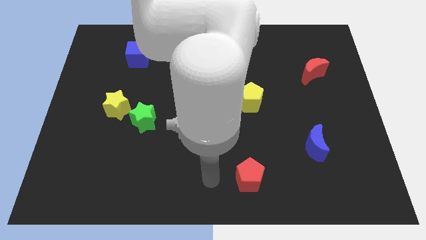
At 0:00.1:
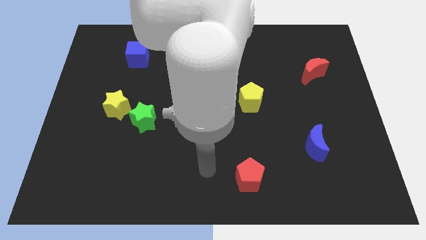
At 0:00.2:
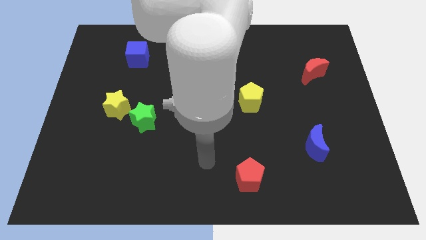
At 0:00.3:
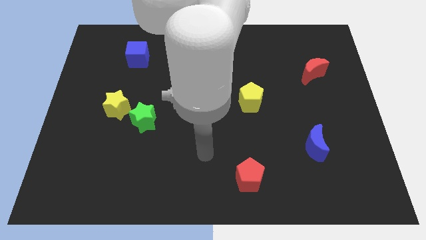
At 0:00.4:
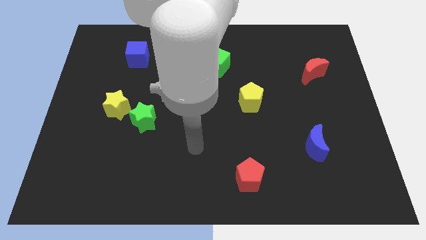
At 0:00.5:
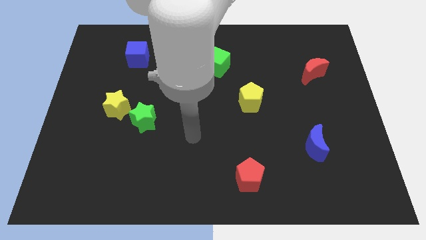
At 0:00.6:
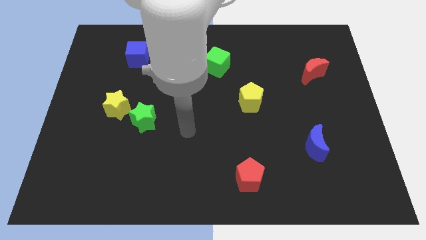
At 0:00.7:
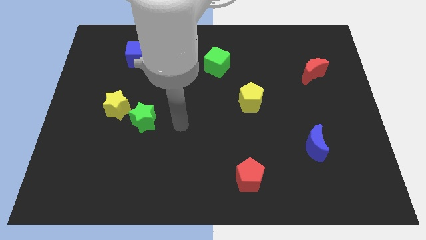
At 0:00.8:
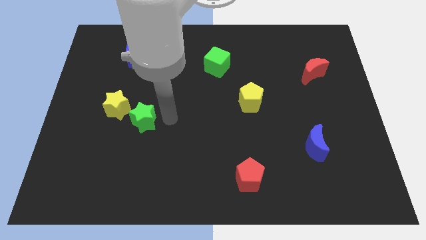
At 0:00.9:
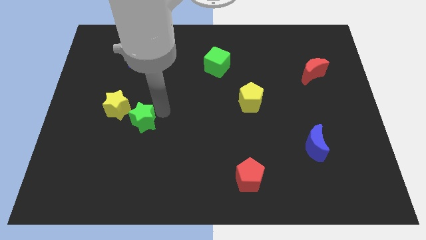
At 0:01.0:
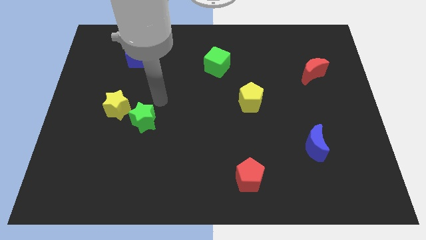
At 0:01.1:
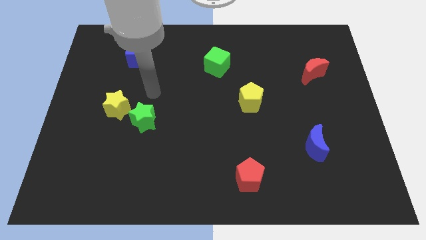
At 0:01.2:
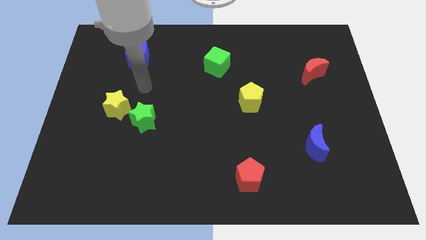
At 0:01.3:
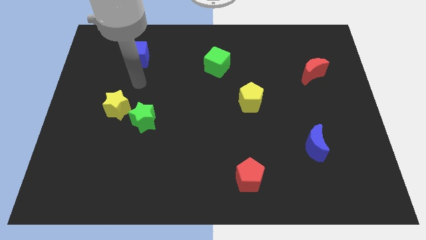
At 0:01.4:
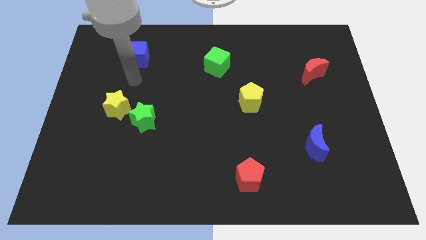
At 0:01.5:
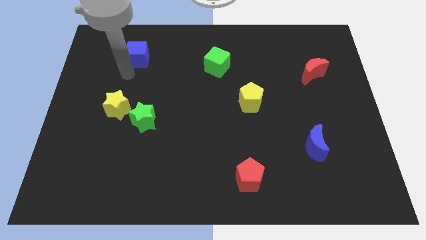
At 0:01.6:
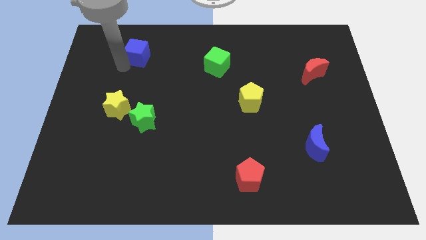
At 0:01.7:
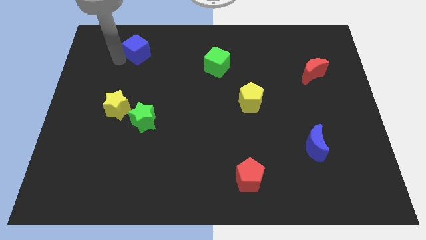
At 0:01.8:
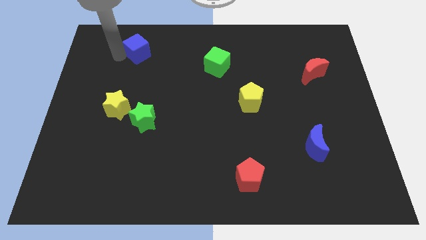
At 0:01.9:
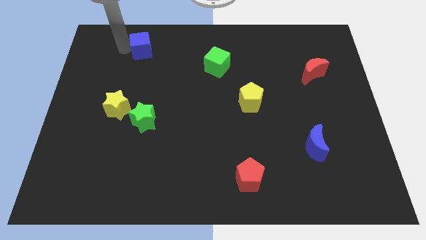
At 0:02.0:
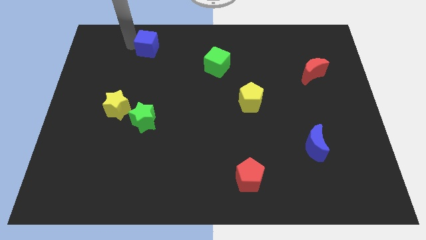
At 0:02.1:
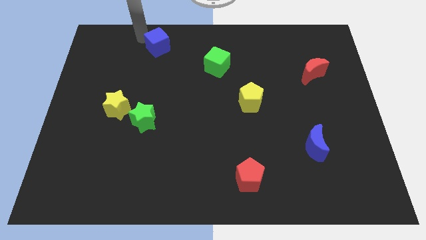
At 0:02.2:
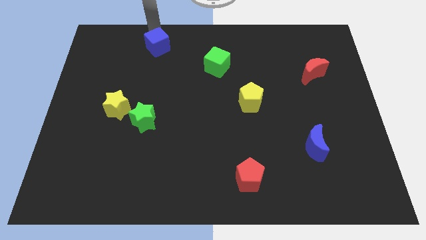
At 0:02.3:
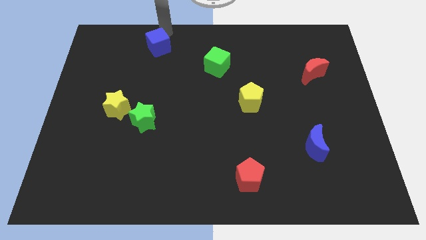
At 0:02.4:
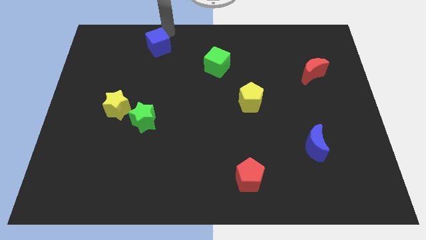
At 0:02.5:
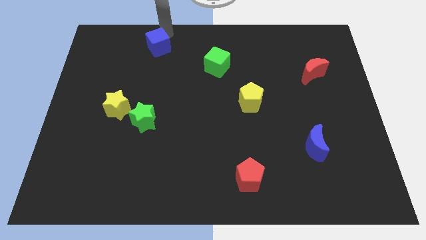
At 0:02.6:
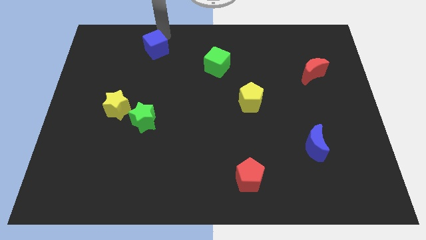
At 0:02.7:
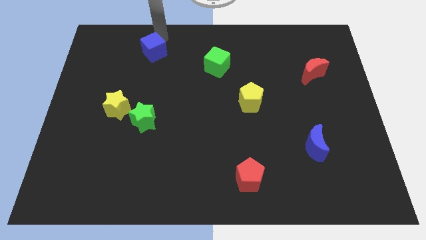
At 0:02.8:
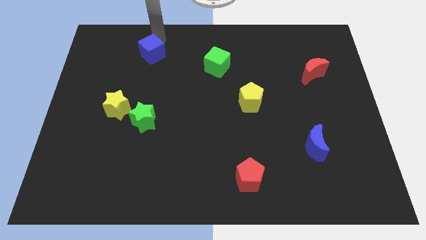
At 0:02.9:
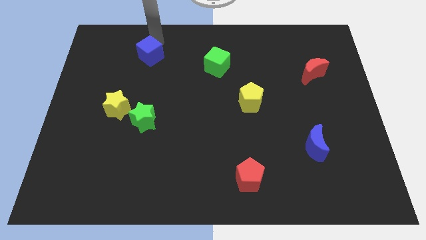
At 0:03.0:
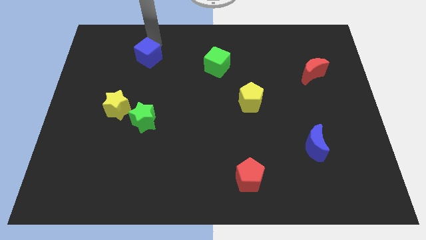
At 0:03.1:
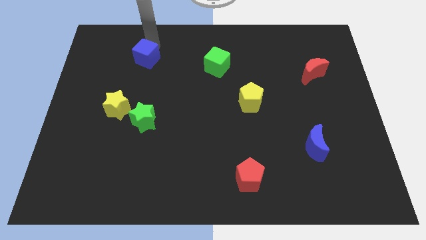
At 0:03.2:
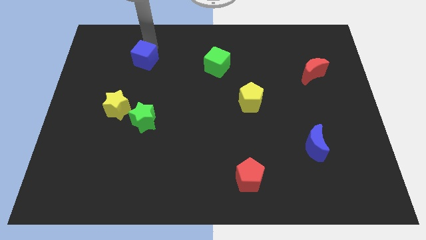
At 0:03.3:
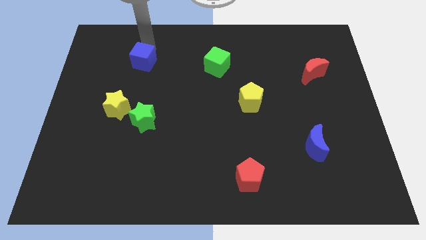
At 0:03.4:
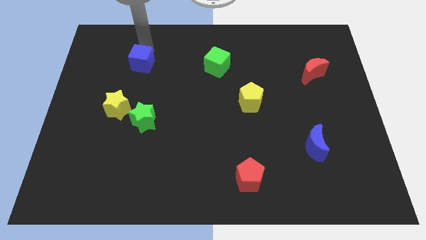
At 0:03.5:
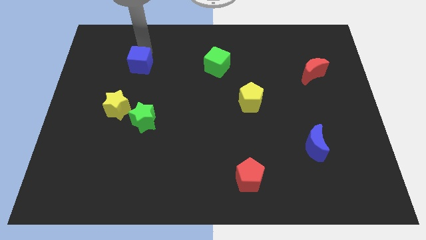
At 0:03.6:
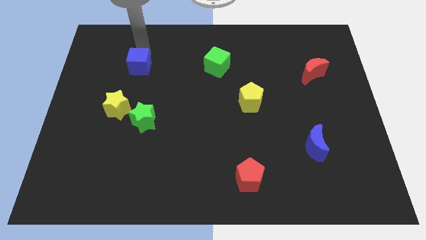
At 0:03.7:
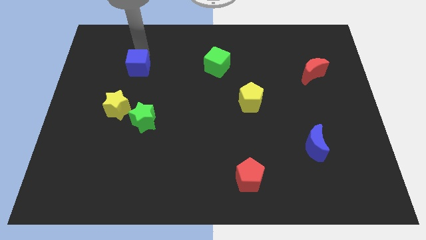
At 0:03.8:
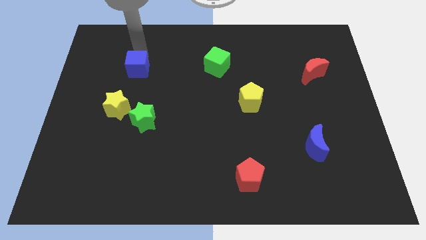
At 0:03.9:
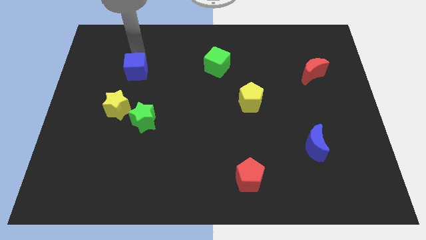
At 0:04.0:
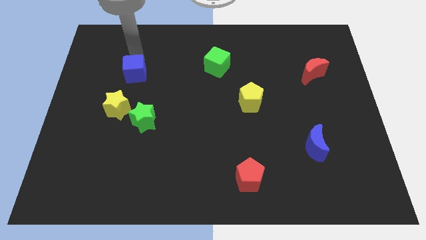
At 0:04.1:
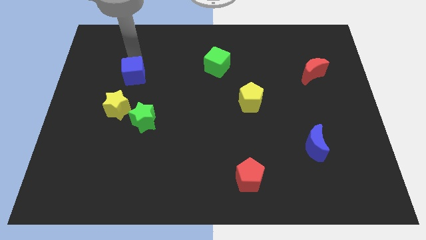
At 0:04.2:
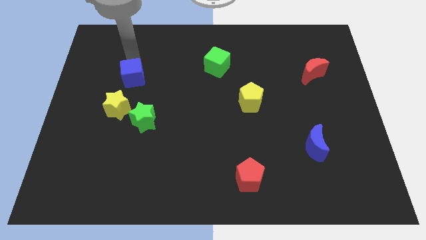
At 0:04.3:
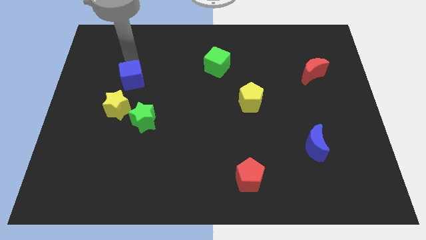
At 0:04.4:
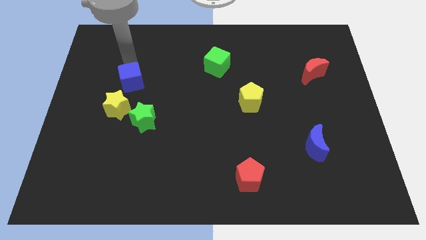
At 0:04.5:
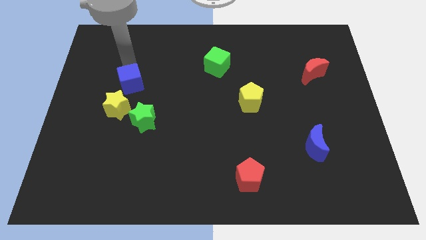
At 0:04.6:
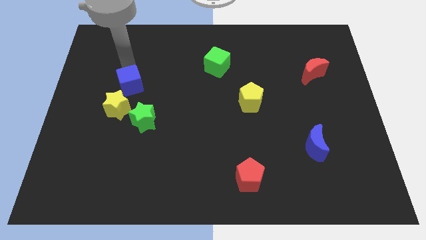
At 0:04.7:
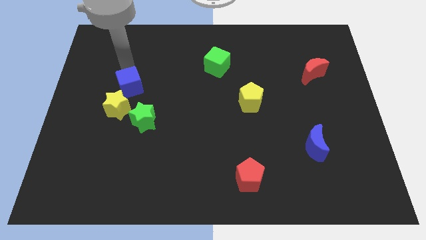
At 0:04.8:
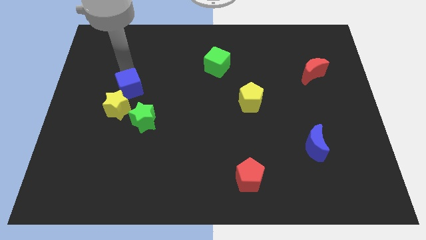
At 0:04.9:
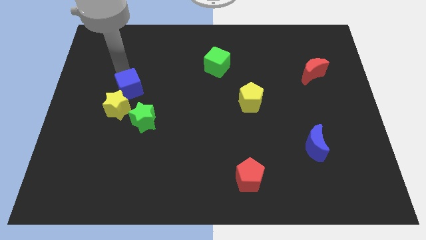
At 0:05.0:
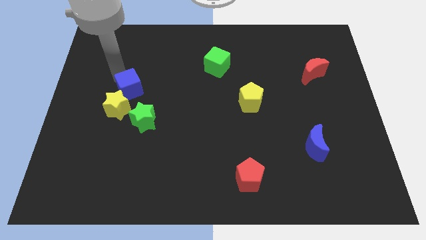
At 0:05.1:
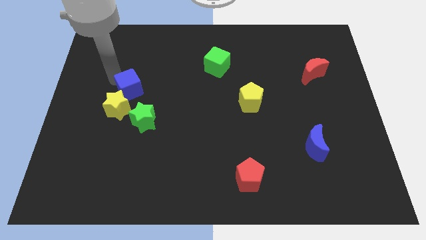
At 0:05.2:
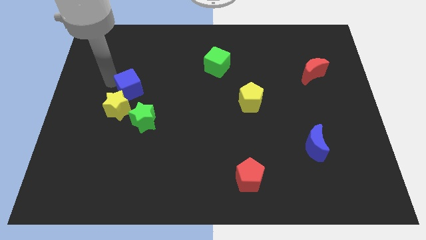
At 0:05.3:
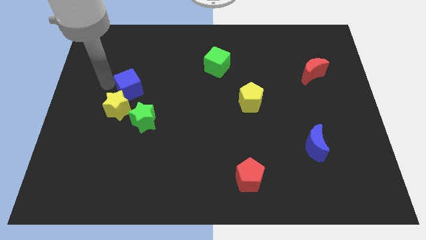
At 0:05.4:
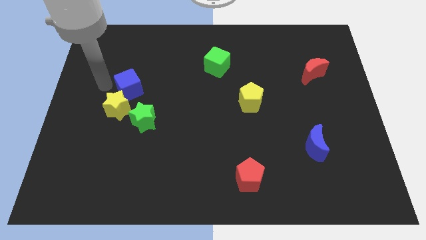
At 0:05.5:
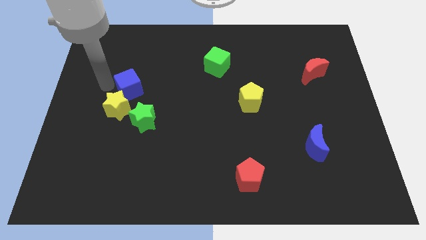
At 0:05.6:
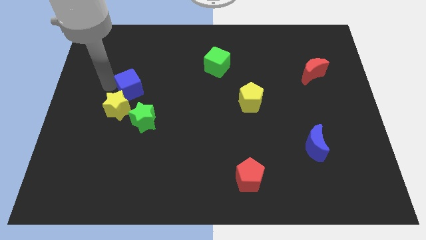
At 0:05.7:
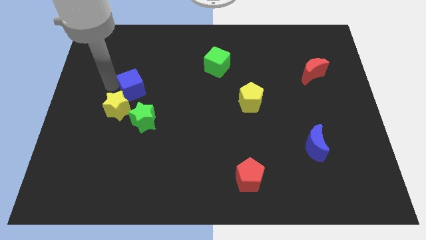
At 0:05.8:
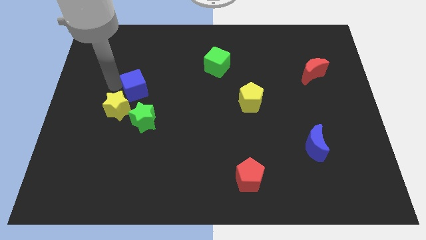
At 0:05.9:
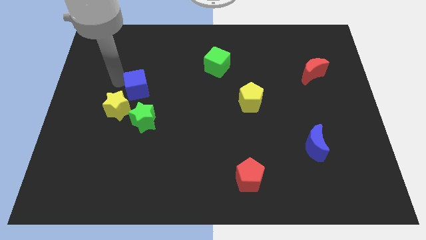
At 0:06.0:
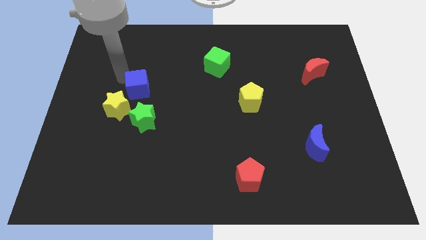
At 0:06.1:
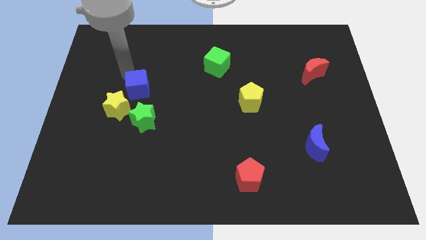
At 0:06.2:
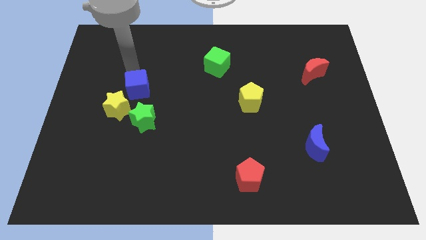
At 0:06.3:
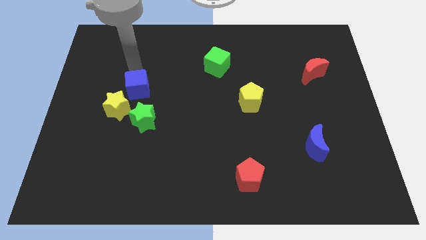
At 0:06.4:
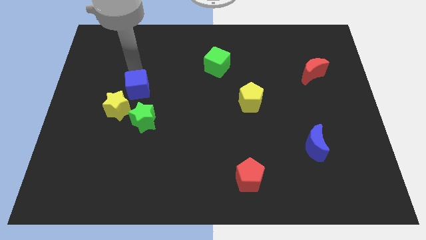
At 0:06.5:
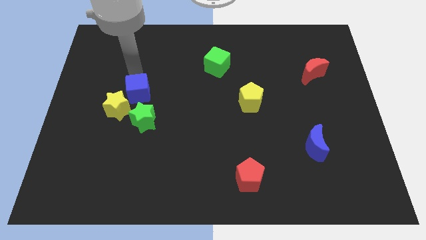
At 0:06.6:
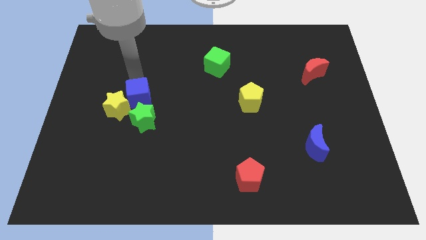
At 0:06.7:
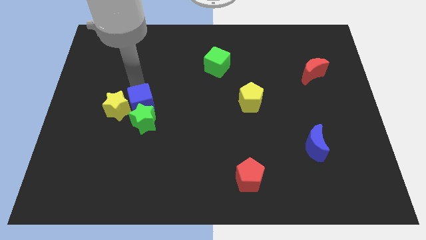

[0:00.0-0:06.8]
slide the blue cube next to the green star

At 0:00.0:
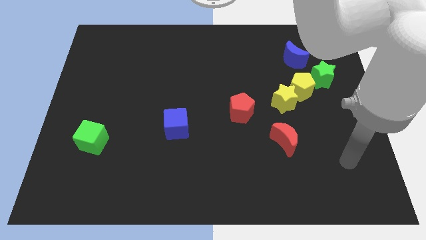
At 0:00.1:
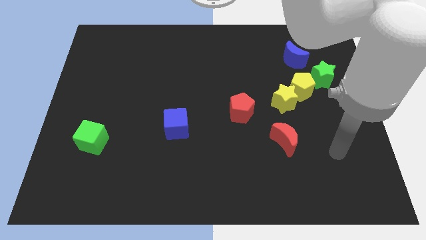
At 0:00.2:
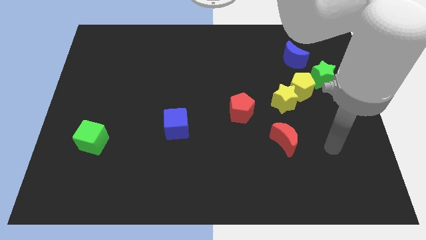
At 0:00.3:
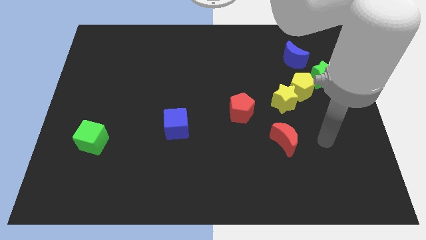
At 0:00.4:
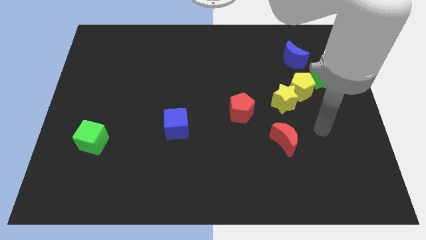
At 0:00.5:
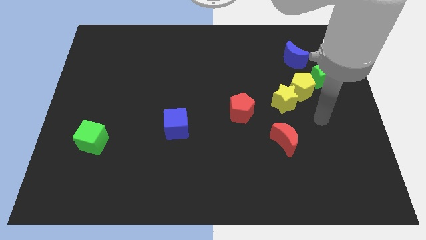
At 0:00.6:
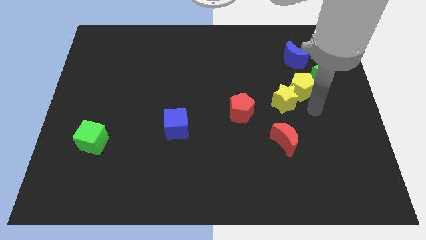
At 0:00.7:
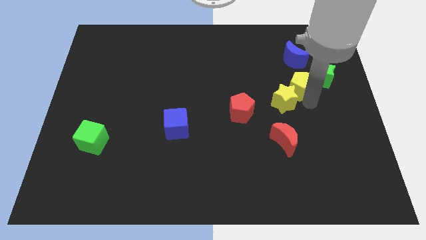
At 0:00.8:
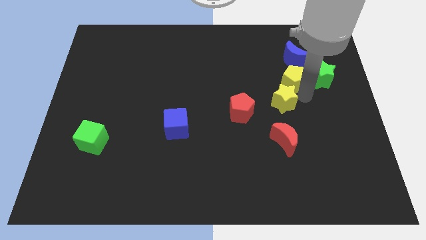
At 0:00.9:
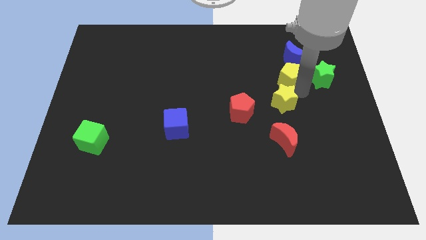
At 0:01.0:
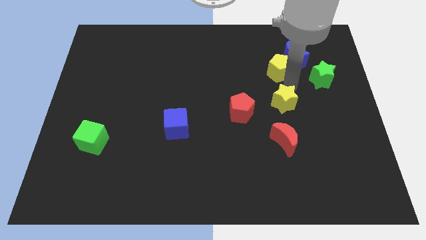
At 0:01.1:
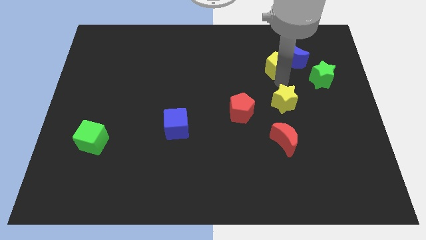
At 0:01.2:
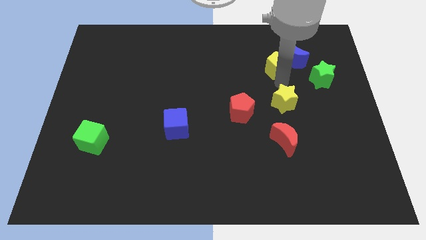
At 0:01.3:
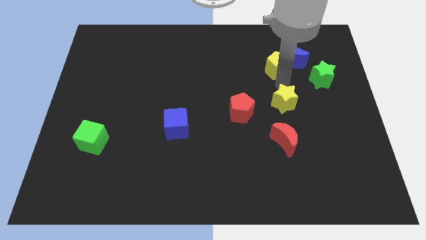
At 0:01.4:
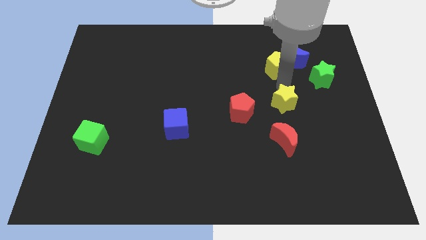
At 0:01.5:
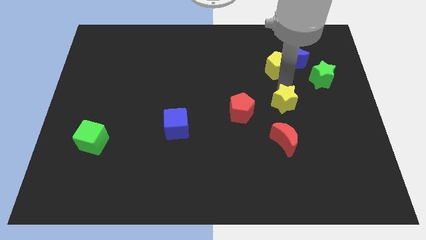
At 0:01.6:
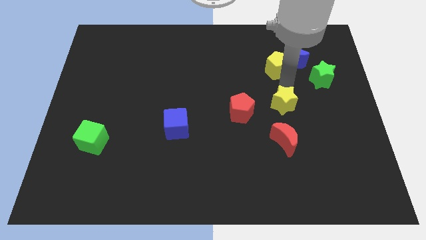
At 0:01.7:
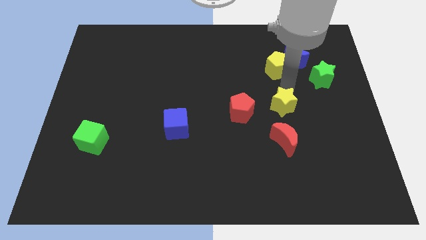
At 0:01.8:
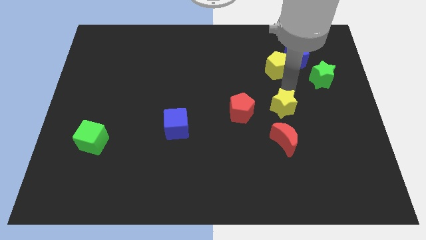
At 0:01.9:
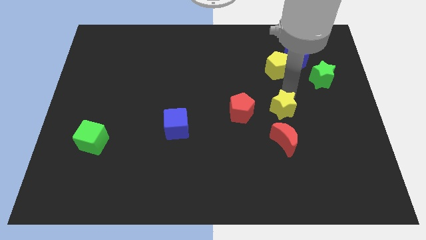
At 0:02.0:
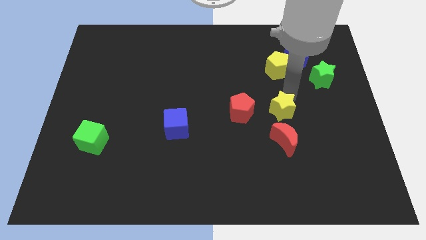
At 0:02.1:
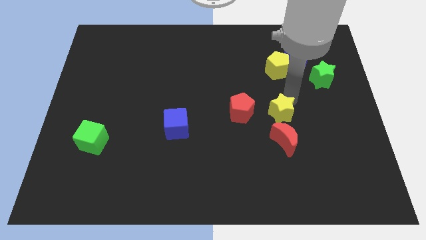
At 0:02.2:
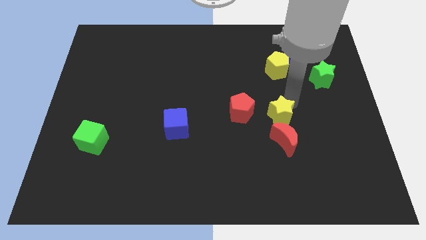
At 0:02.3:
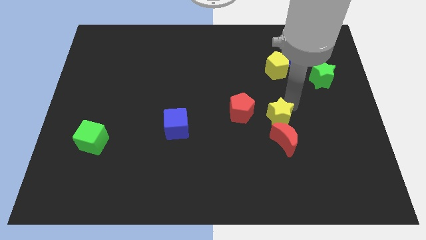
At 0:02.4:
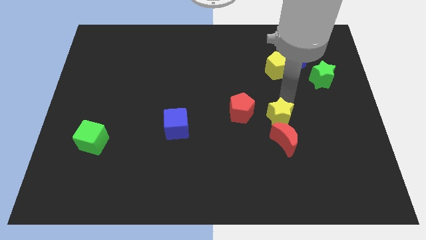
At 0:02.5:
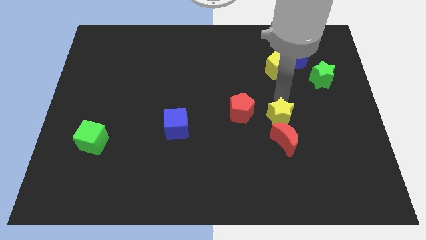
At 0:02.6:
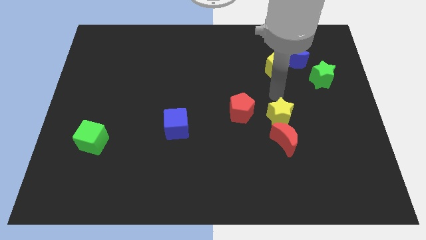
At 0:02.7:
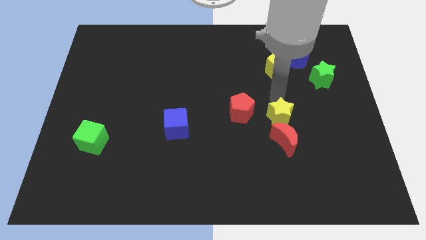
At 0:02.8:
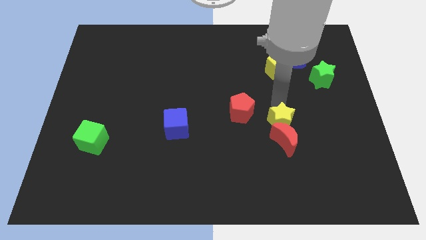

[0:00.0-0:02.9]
push the yellow star towards the red moon
